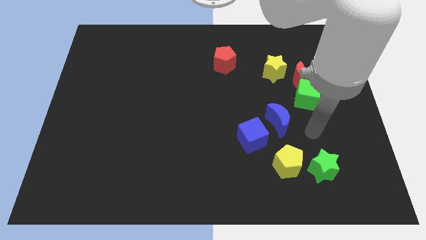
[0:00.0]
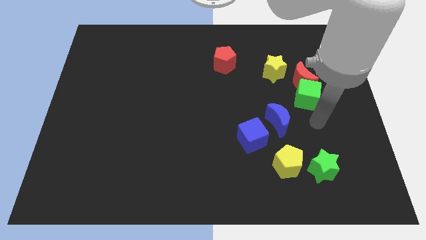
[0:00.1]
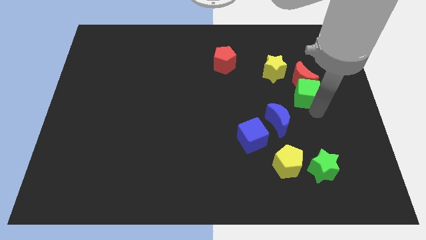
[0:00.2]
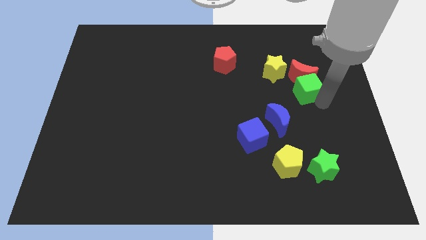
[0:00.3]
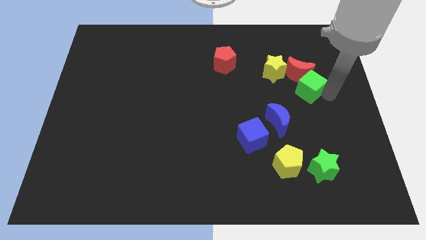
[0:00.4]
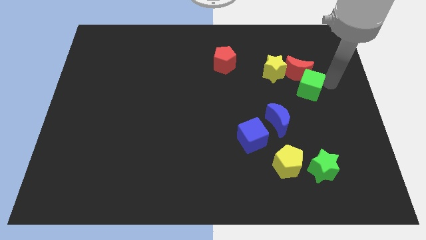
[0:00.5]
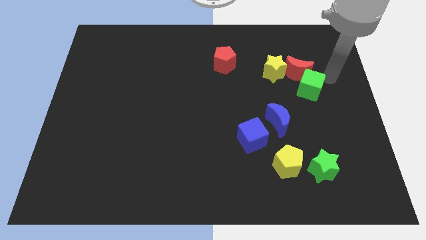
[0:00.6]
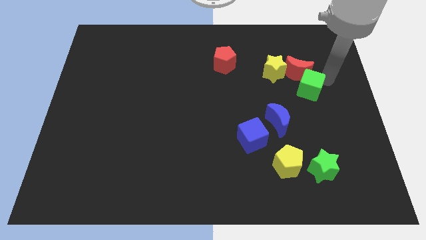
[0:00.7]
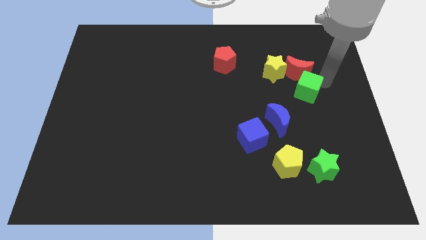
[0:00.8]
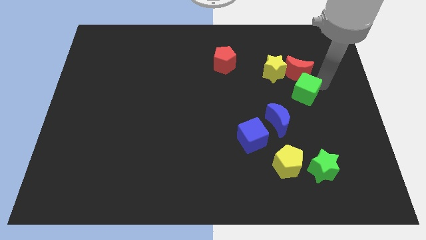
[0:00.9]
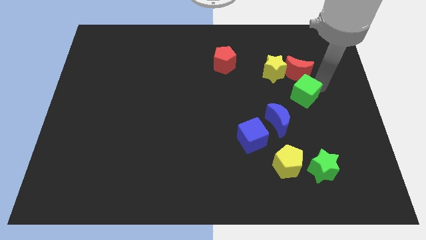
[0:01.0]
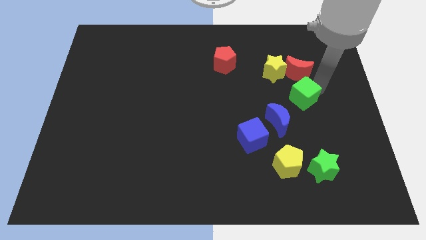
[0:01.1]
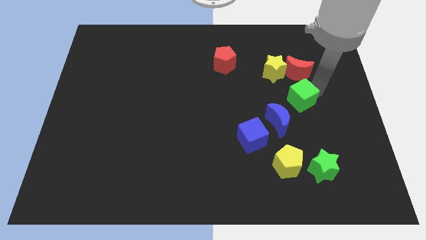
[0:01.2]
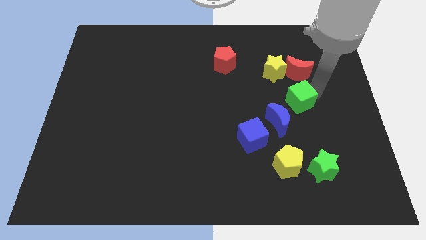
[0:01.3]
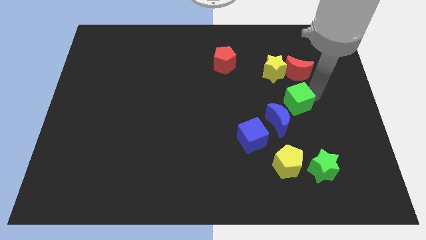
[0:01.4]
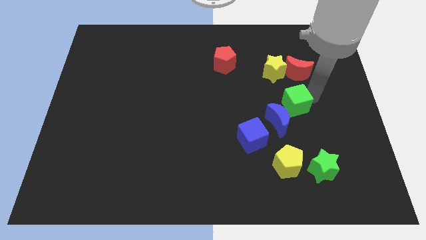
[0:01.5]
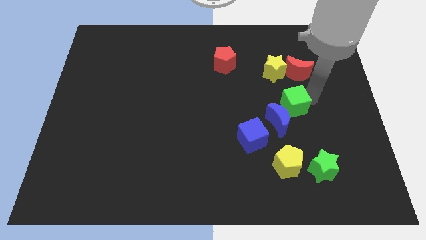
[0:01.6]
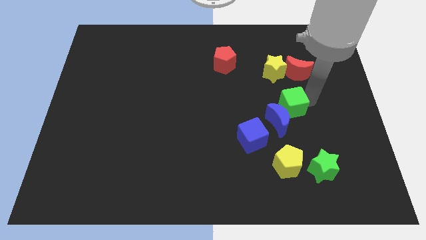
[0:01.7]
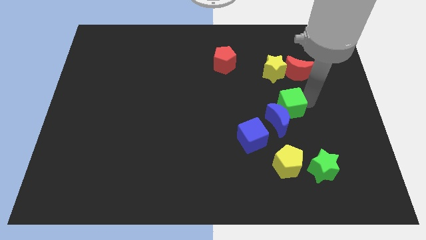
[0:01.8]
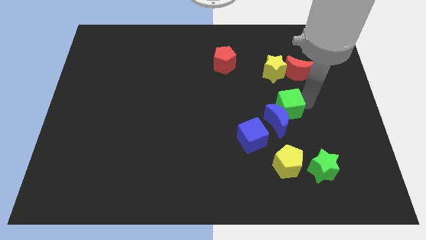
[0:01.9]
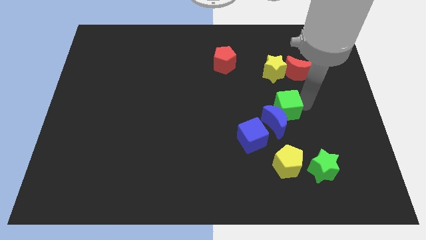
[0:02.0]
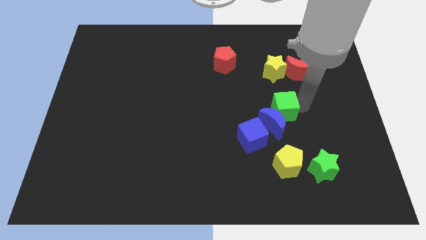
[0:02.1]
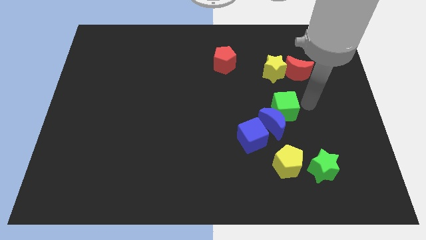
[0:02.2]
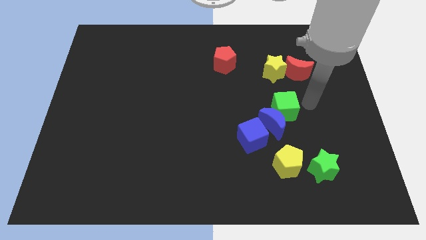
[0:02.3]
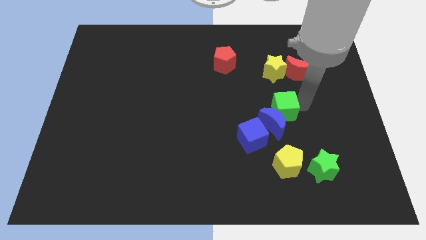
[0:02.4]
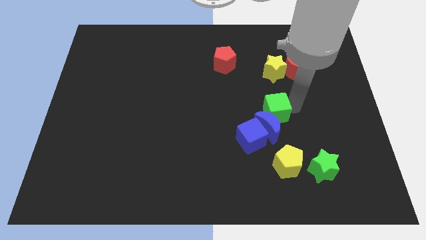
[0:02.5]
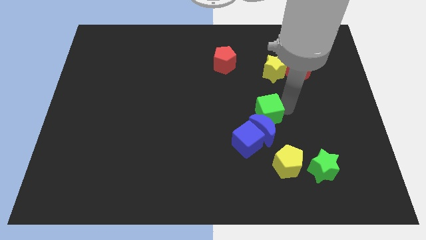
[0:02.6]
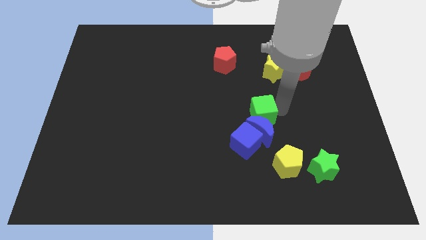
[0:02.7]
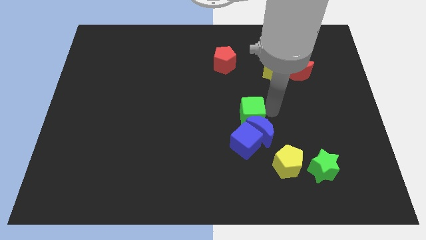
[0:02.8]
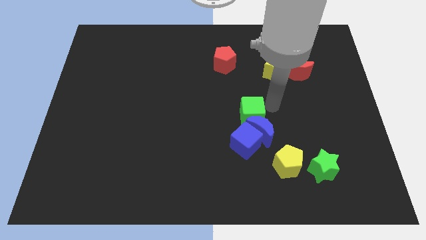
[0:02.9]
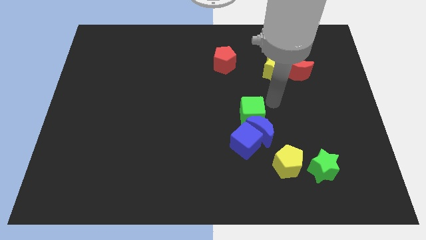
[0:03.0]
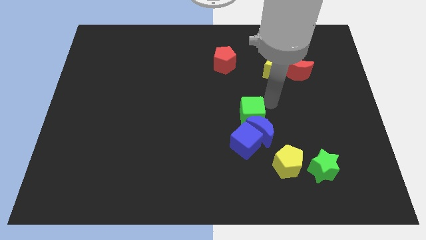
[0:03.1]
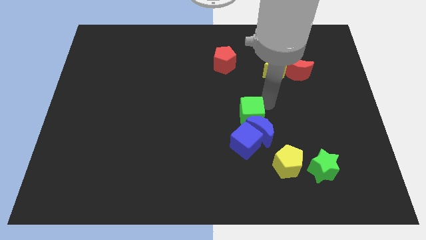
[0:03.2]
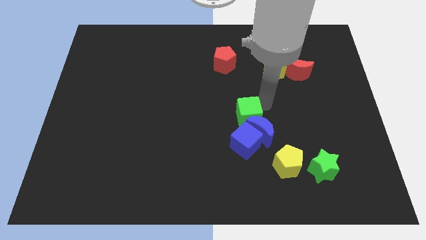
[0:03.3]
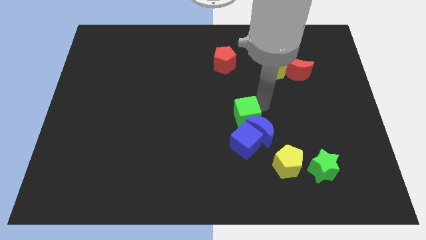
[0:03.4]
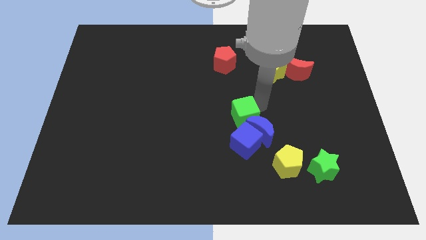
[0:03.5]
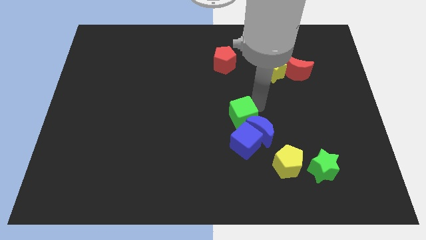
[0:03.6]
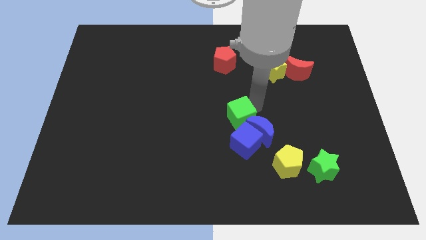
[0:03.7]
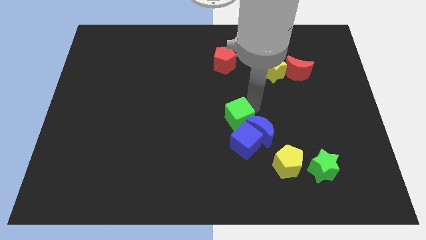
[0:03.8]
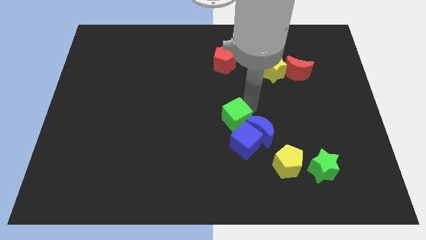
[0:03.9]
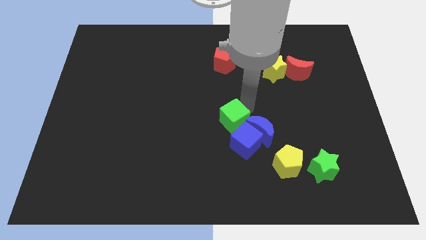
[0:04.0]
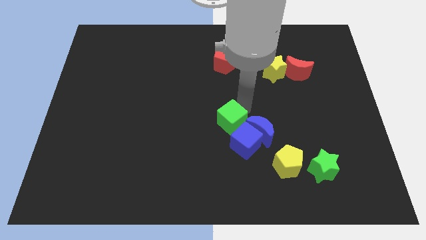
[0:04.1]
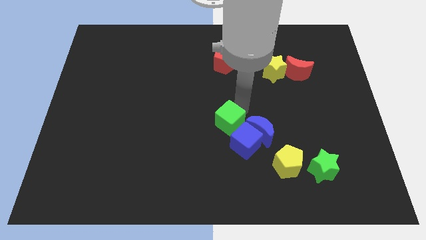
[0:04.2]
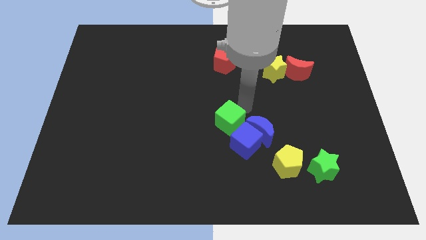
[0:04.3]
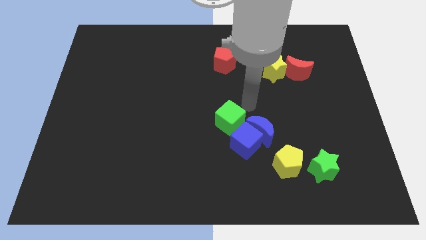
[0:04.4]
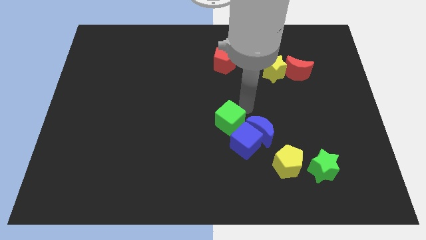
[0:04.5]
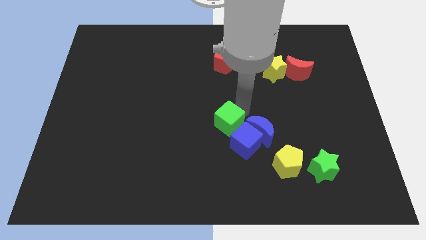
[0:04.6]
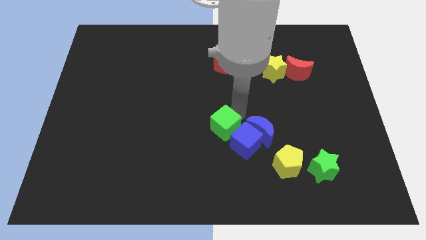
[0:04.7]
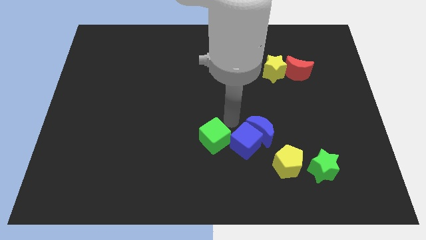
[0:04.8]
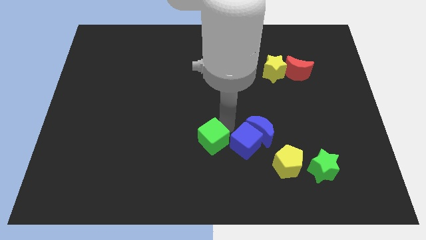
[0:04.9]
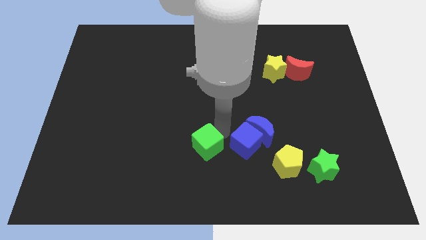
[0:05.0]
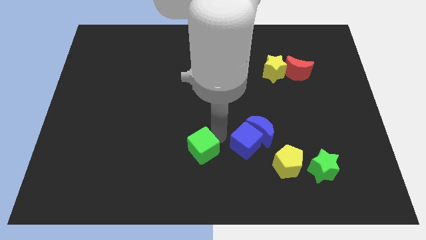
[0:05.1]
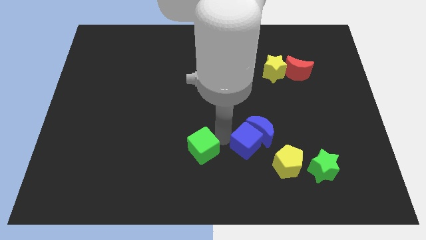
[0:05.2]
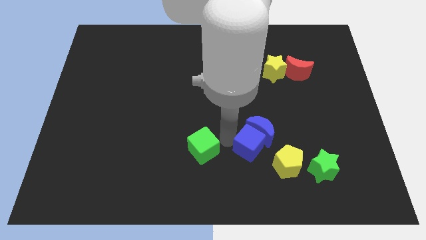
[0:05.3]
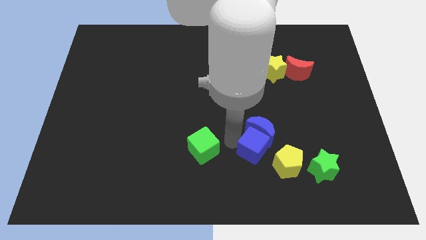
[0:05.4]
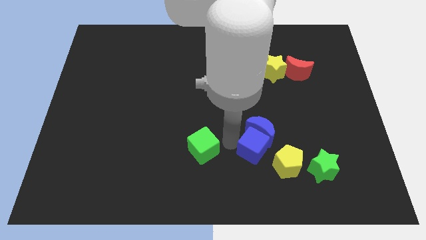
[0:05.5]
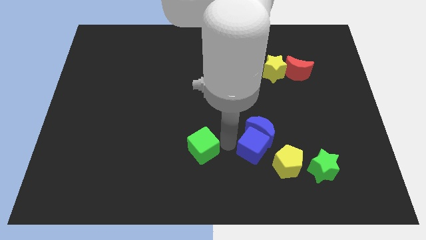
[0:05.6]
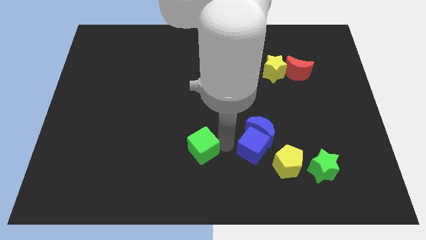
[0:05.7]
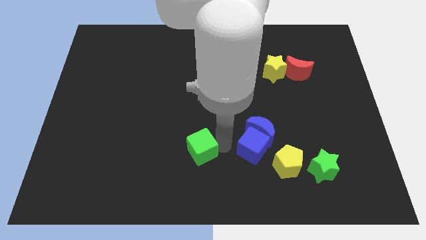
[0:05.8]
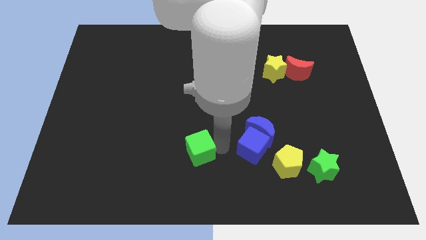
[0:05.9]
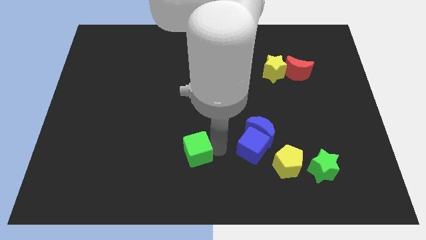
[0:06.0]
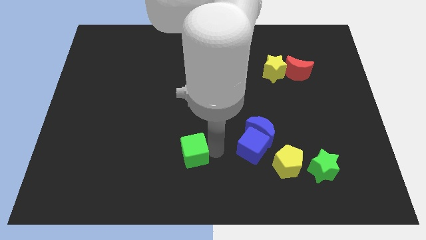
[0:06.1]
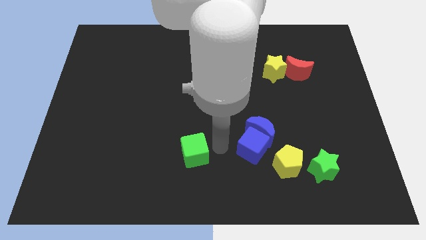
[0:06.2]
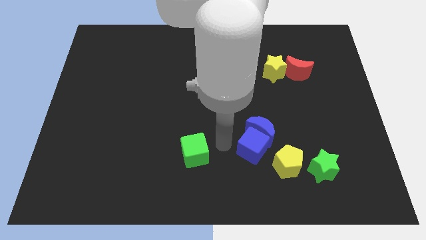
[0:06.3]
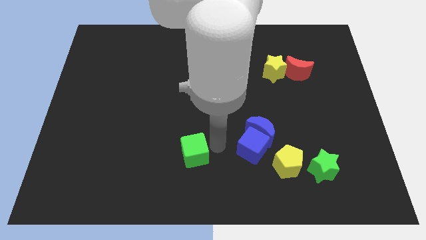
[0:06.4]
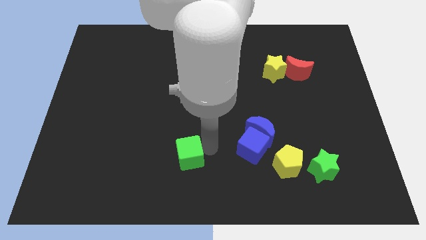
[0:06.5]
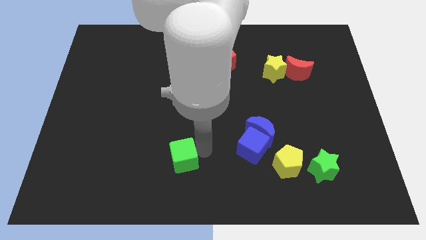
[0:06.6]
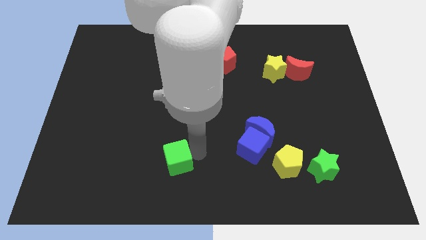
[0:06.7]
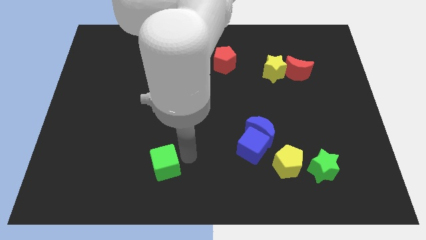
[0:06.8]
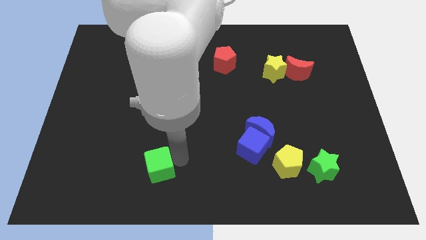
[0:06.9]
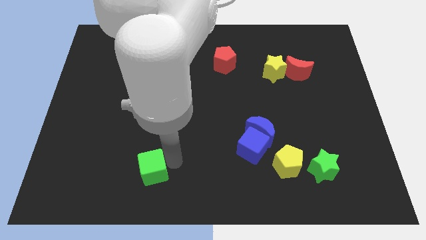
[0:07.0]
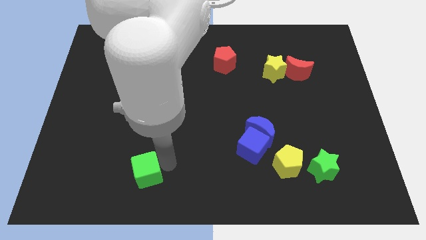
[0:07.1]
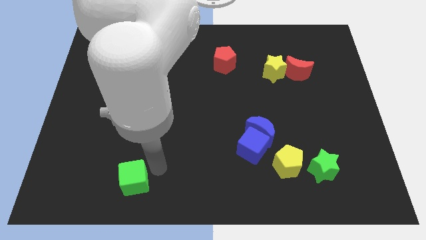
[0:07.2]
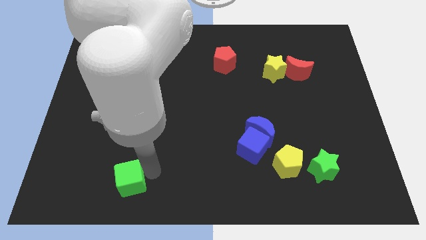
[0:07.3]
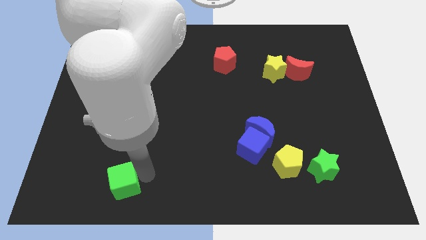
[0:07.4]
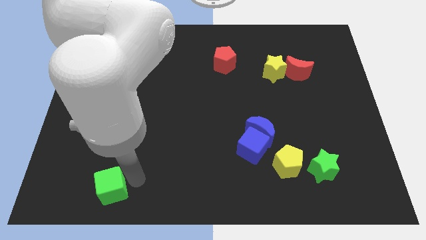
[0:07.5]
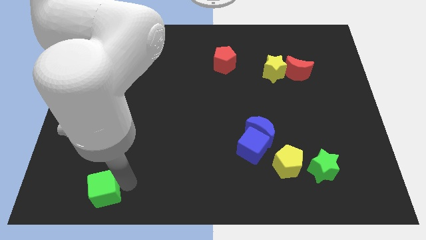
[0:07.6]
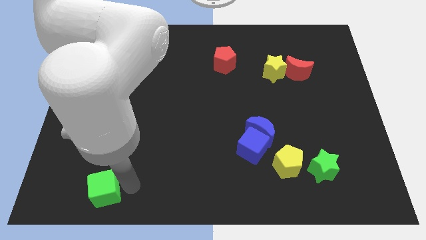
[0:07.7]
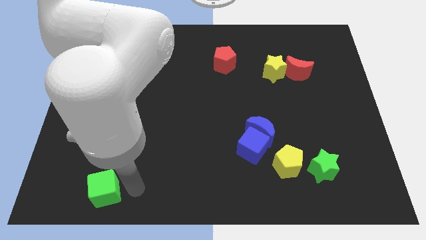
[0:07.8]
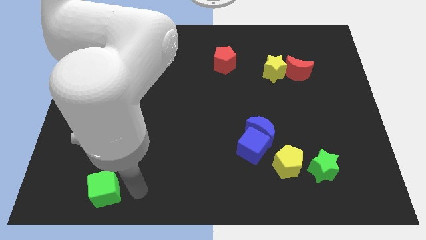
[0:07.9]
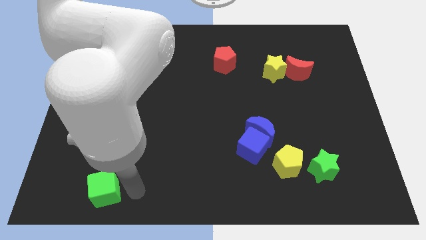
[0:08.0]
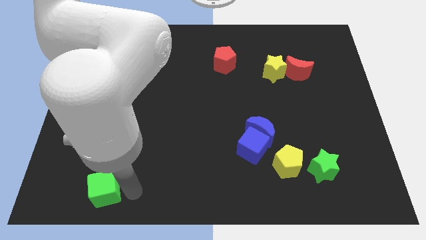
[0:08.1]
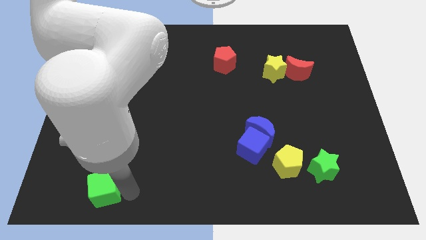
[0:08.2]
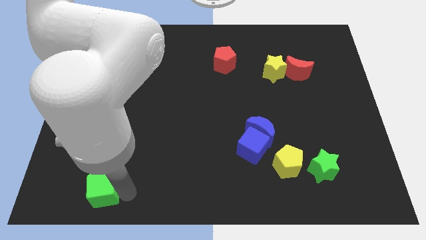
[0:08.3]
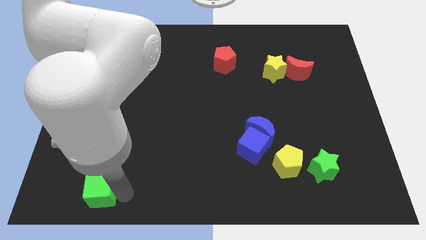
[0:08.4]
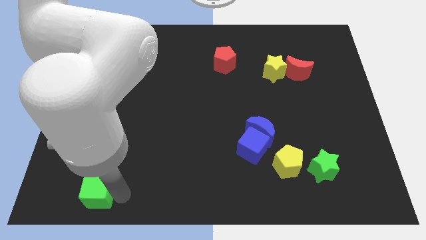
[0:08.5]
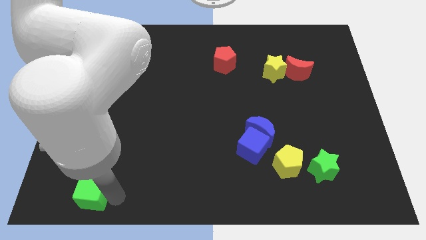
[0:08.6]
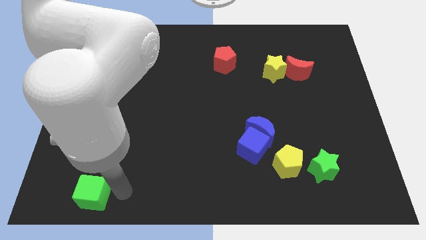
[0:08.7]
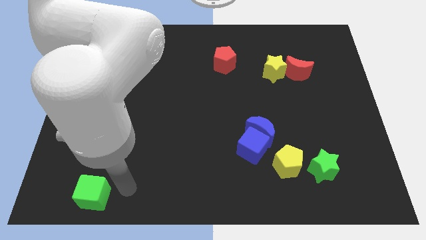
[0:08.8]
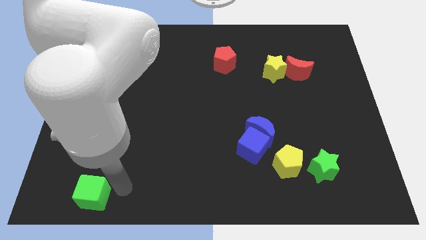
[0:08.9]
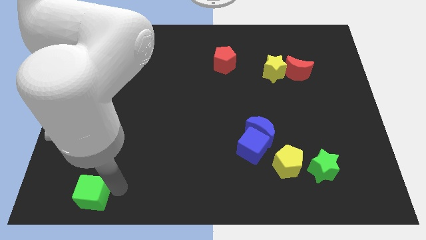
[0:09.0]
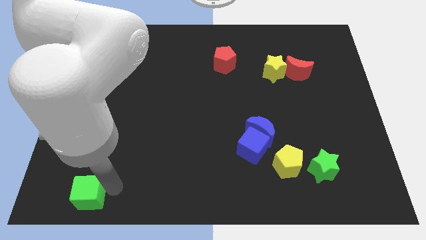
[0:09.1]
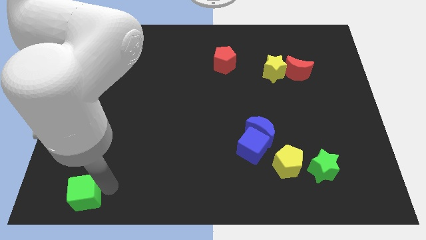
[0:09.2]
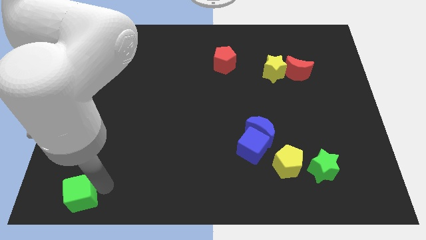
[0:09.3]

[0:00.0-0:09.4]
move the green cube to the lower left corner
